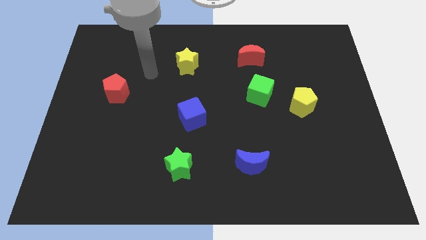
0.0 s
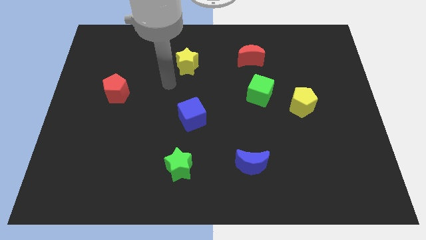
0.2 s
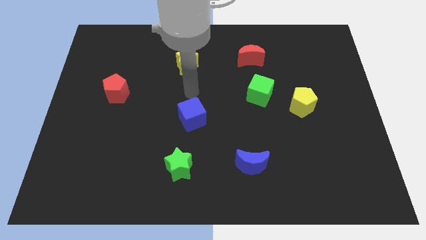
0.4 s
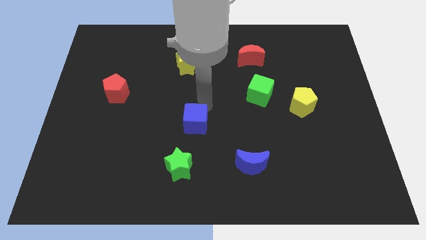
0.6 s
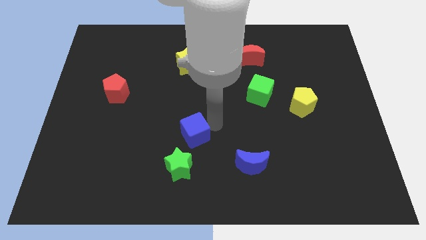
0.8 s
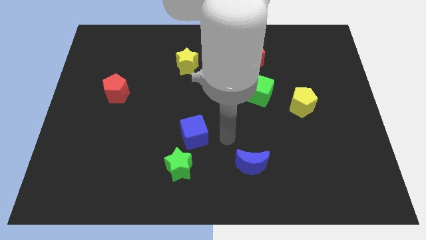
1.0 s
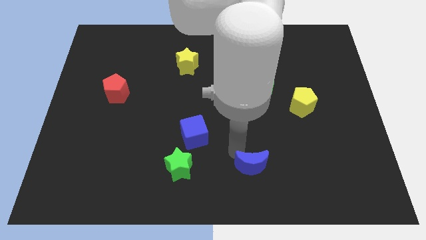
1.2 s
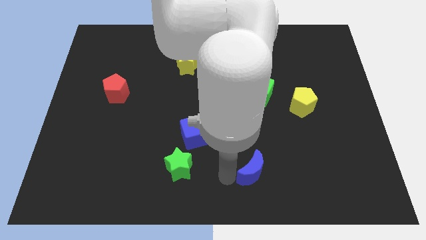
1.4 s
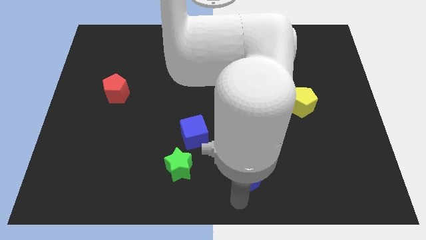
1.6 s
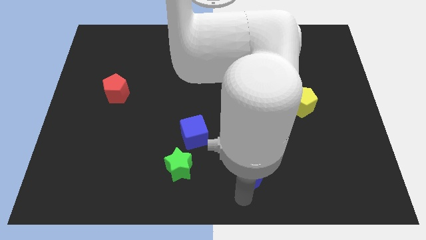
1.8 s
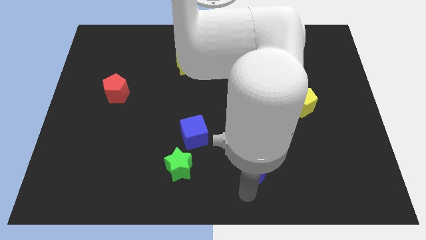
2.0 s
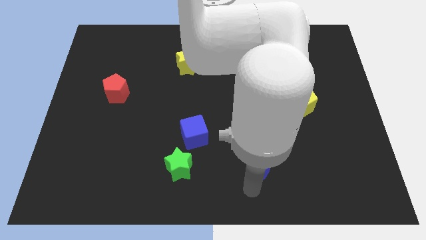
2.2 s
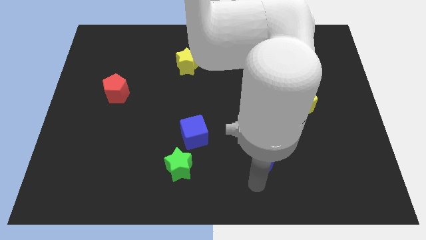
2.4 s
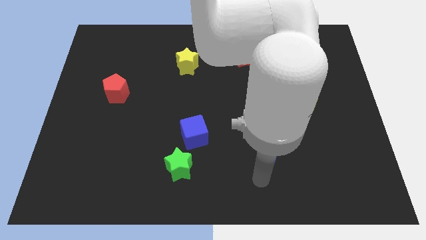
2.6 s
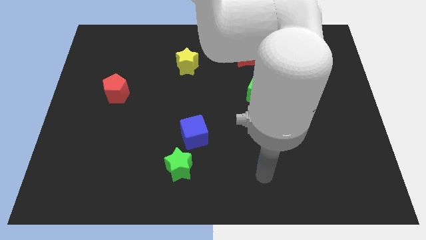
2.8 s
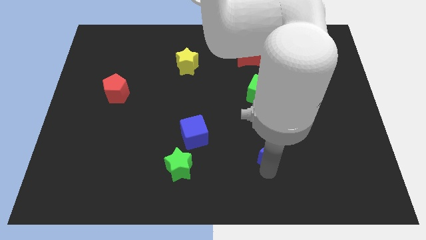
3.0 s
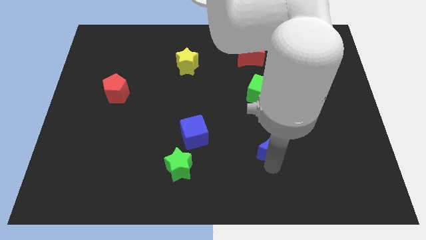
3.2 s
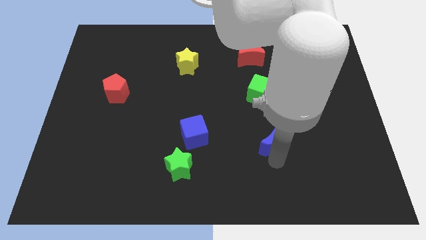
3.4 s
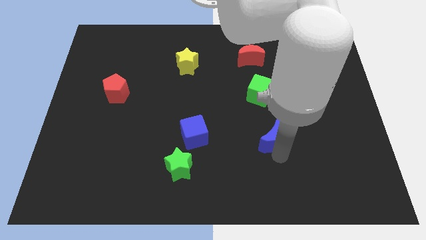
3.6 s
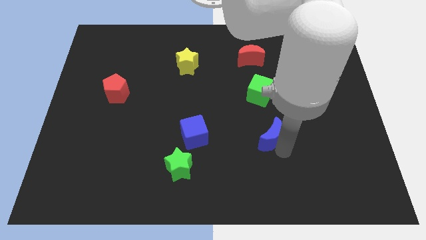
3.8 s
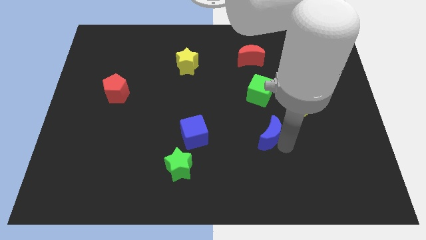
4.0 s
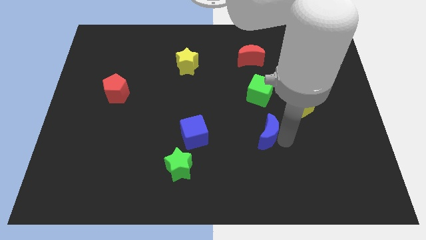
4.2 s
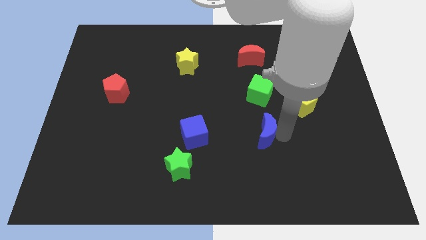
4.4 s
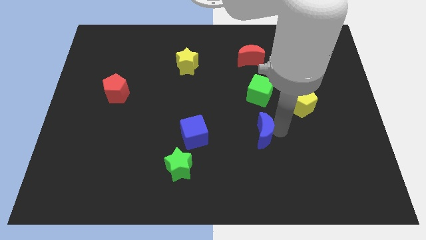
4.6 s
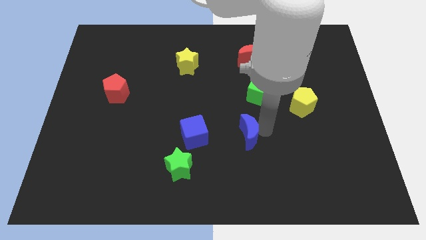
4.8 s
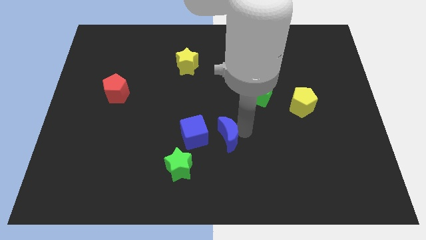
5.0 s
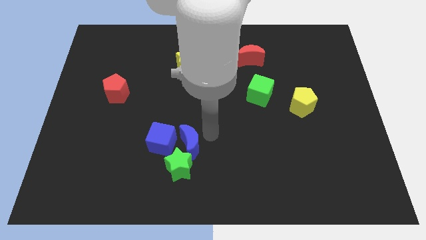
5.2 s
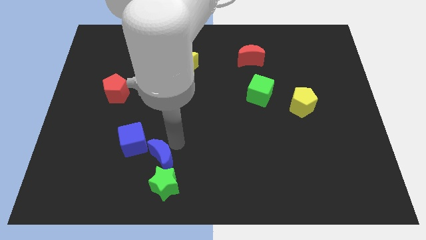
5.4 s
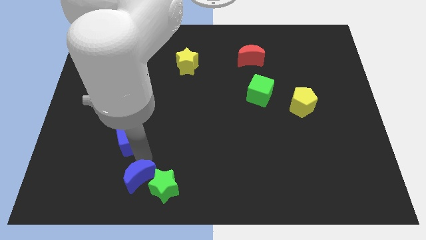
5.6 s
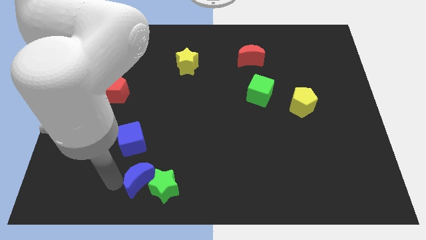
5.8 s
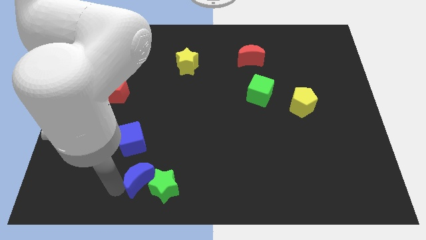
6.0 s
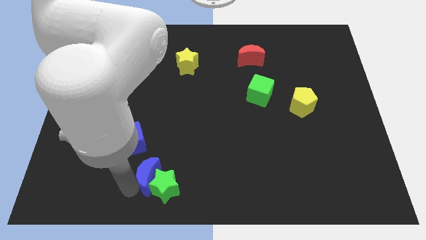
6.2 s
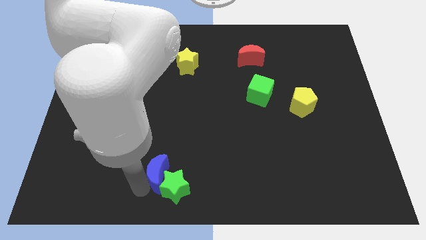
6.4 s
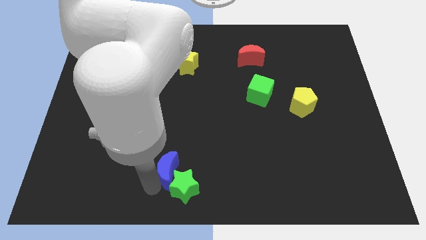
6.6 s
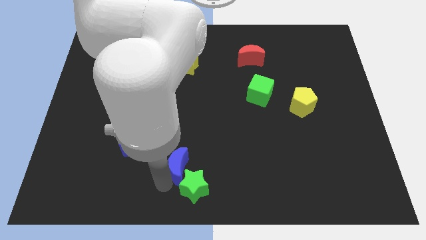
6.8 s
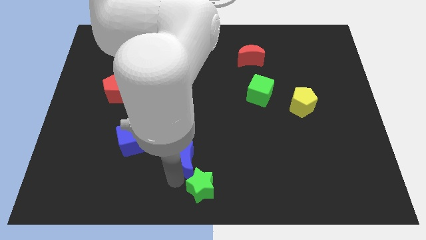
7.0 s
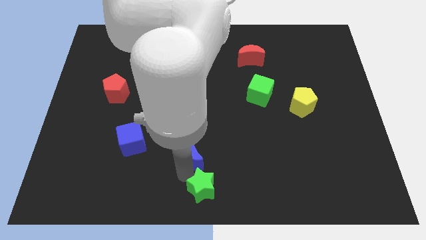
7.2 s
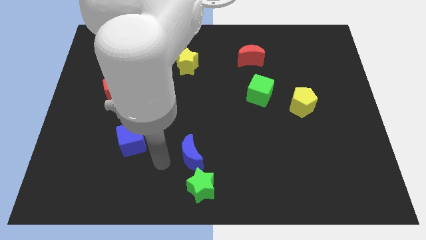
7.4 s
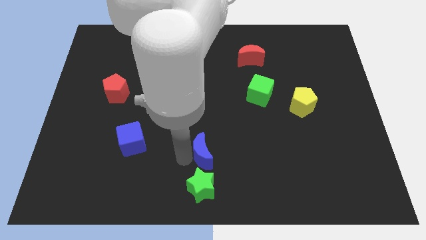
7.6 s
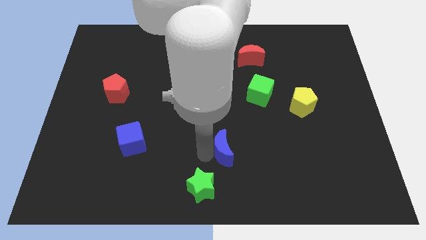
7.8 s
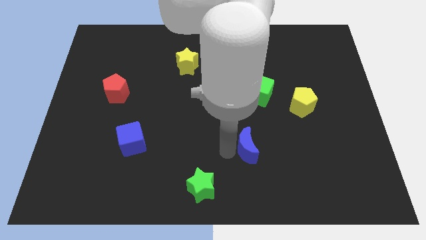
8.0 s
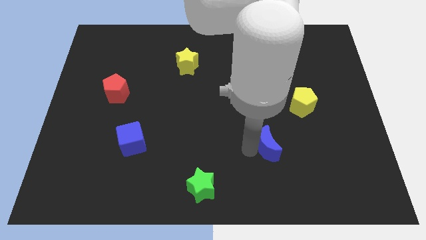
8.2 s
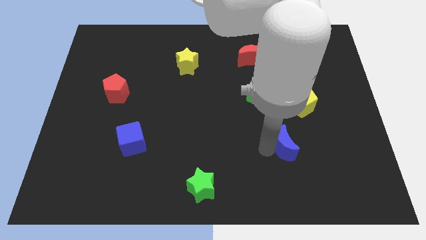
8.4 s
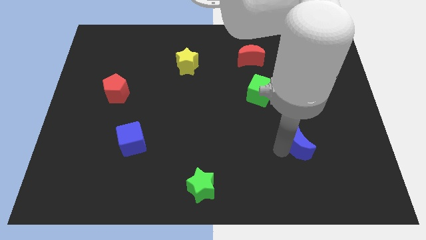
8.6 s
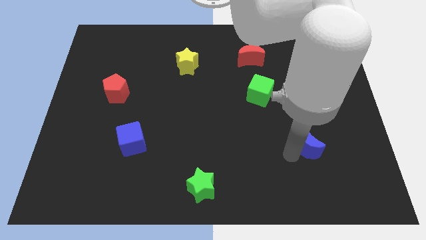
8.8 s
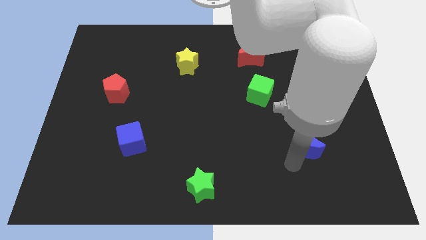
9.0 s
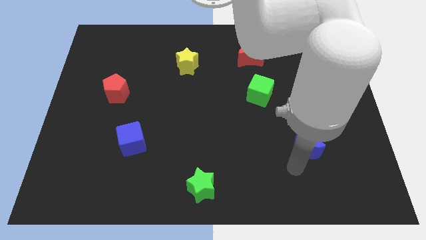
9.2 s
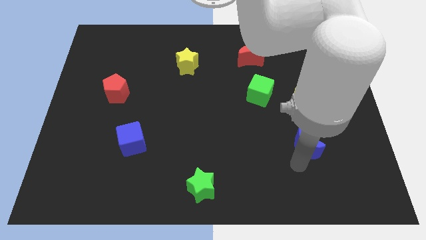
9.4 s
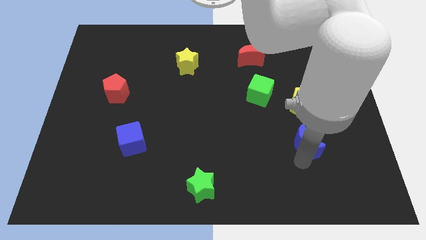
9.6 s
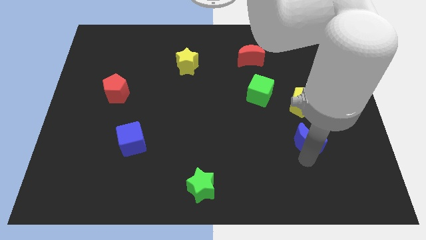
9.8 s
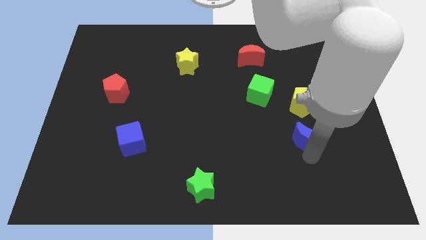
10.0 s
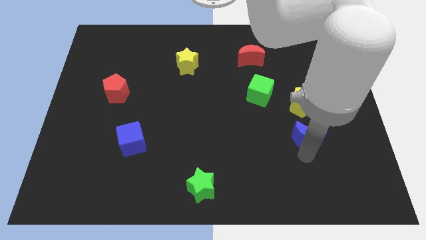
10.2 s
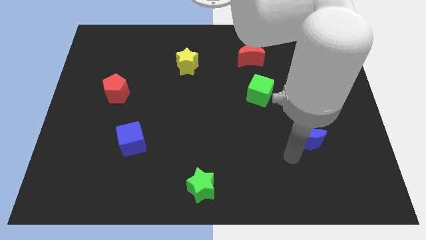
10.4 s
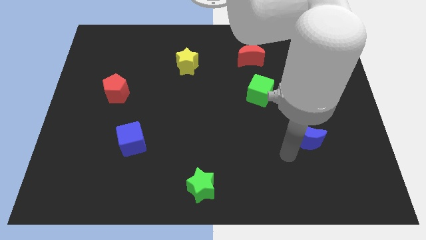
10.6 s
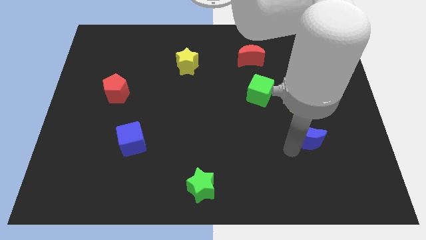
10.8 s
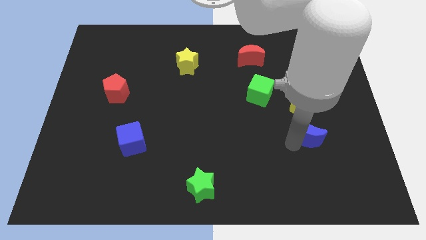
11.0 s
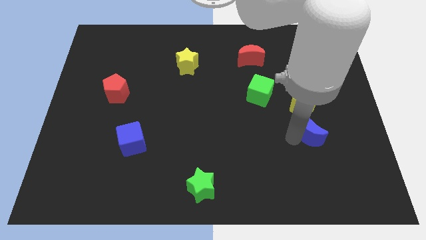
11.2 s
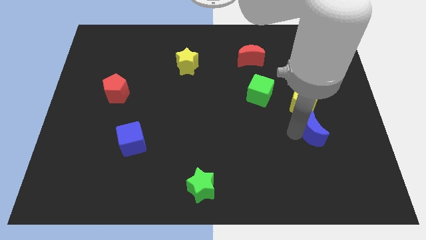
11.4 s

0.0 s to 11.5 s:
push the blue moon diagonally down and to the right of the yellow pentagon
